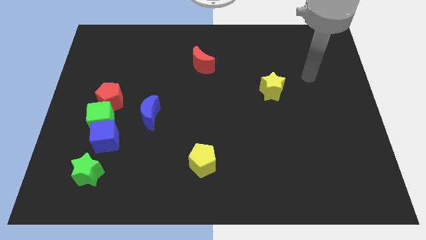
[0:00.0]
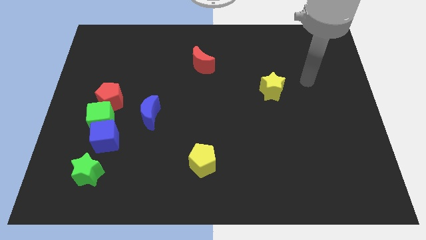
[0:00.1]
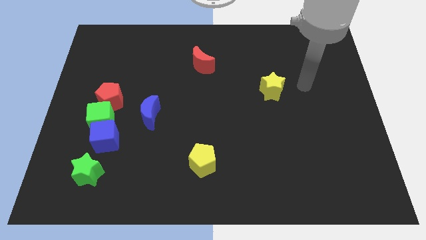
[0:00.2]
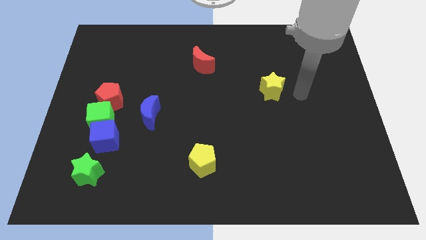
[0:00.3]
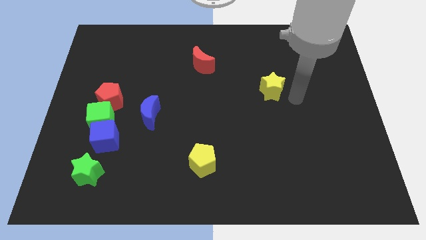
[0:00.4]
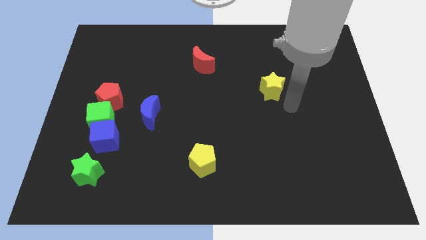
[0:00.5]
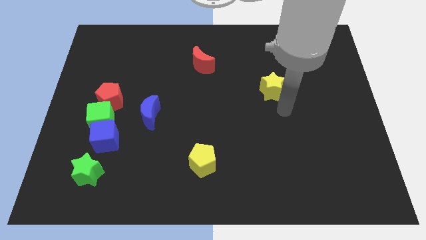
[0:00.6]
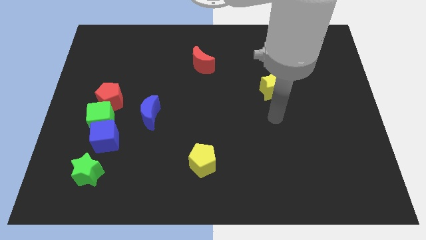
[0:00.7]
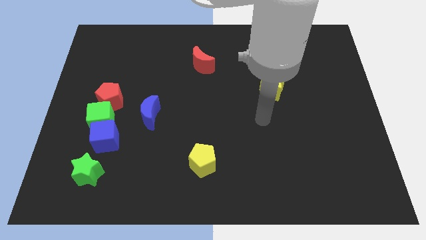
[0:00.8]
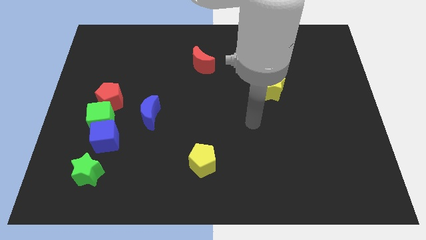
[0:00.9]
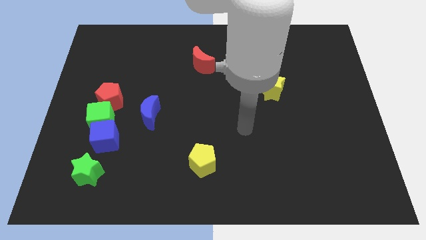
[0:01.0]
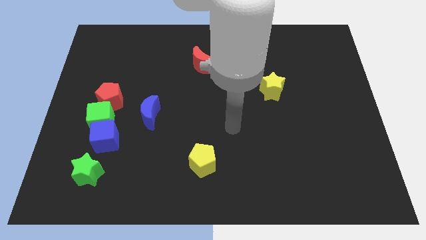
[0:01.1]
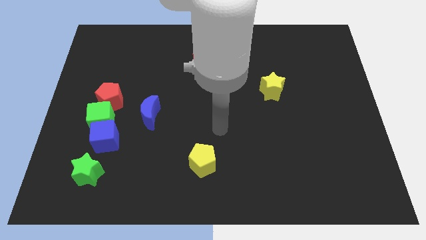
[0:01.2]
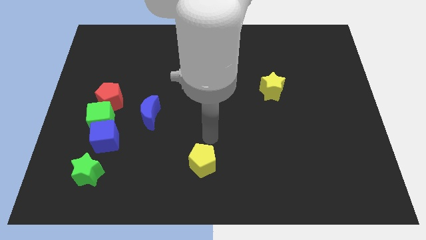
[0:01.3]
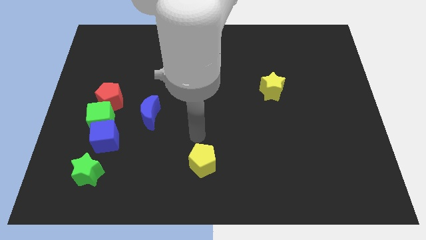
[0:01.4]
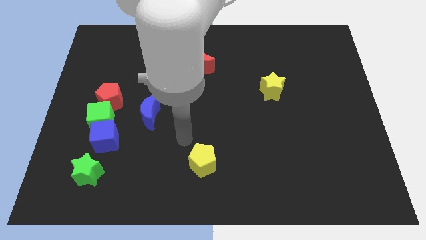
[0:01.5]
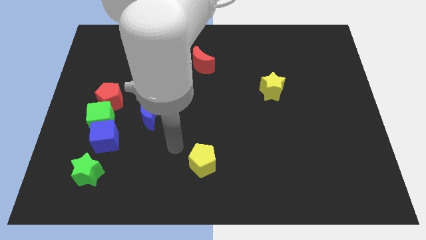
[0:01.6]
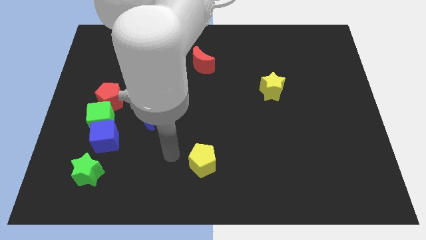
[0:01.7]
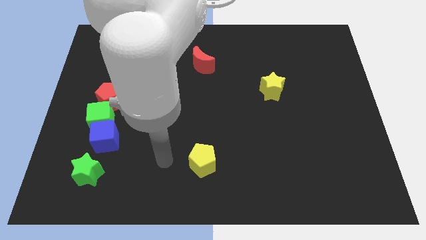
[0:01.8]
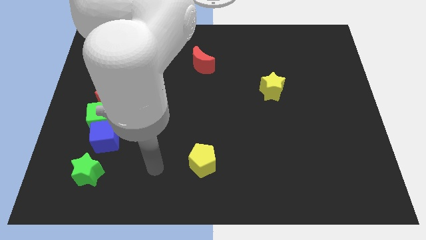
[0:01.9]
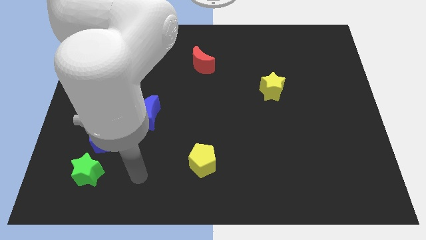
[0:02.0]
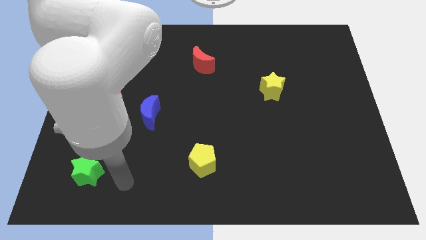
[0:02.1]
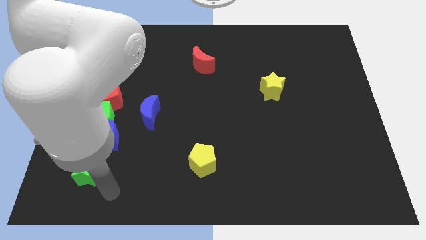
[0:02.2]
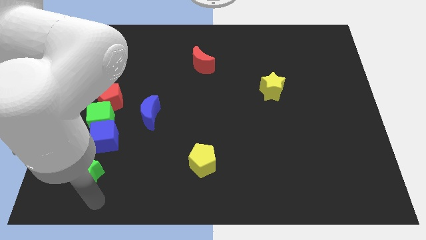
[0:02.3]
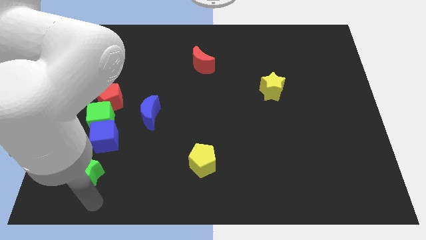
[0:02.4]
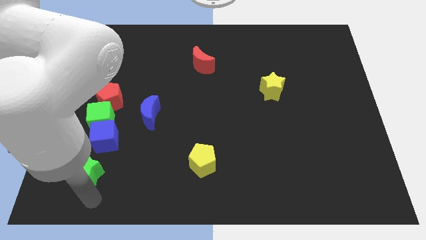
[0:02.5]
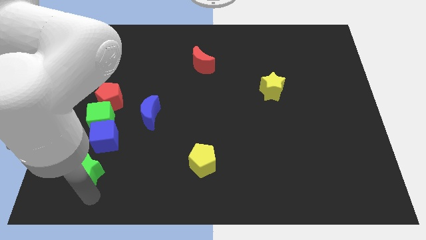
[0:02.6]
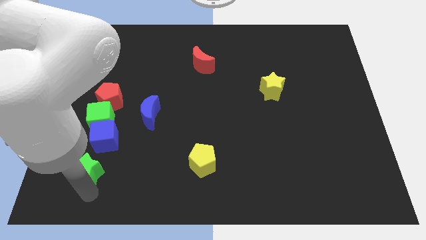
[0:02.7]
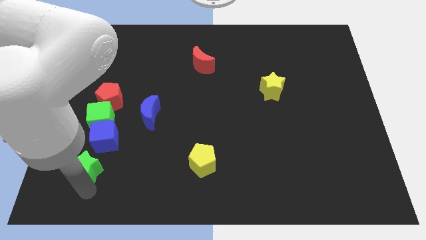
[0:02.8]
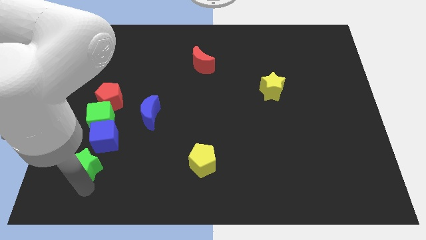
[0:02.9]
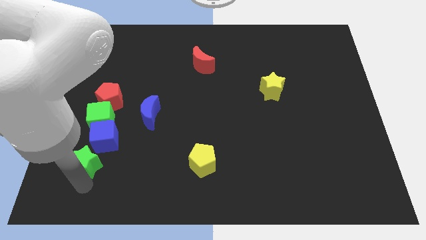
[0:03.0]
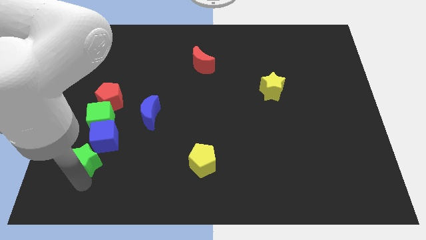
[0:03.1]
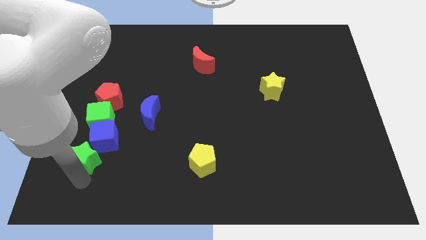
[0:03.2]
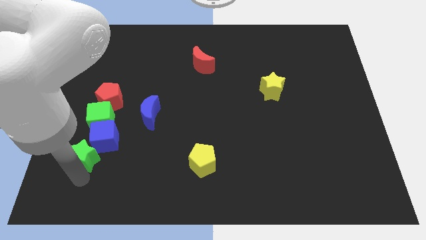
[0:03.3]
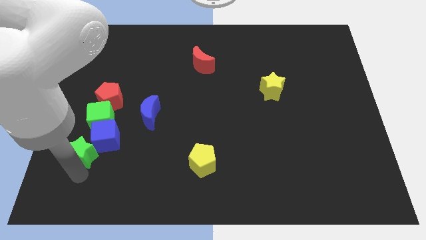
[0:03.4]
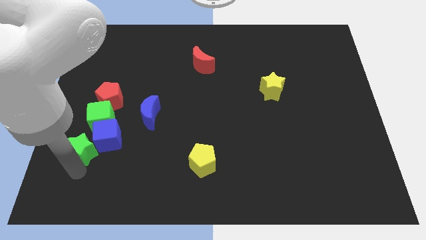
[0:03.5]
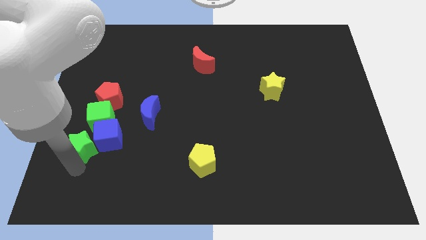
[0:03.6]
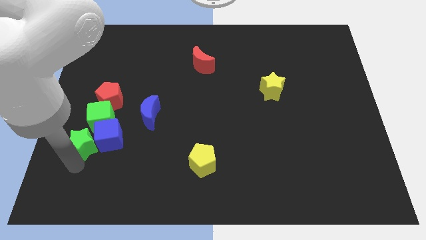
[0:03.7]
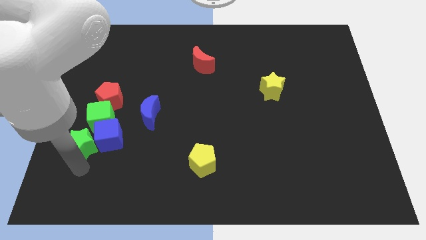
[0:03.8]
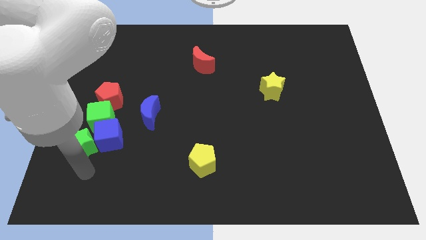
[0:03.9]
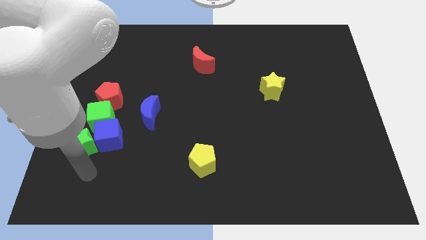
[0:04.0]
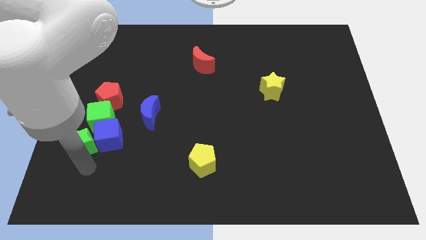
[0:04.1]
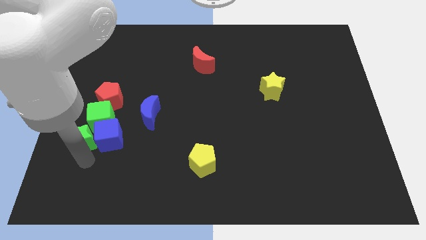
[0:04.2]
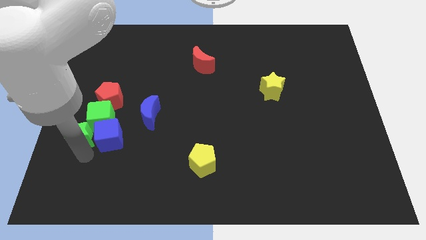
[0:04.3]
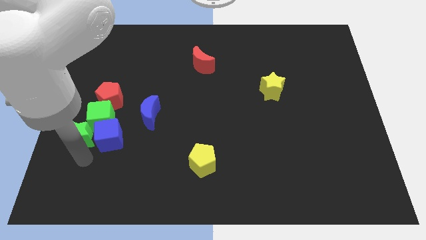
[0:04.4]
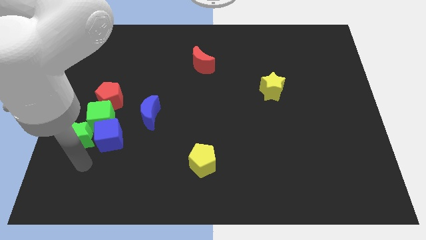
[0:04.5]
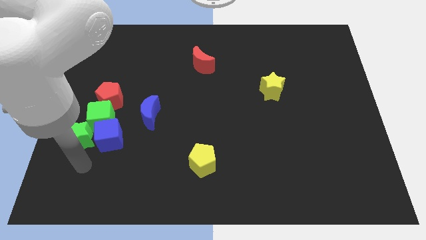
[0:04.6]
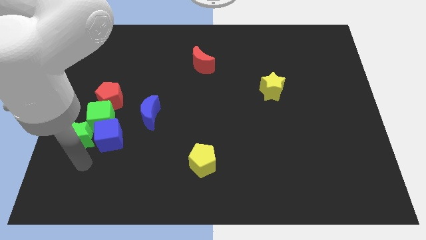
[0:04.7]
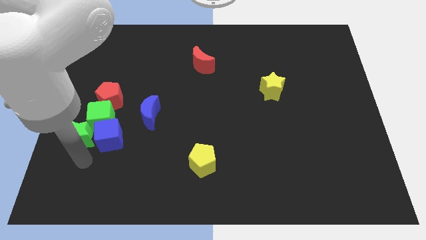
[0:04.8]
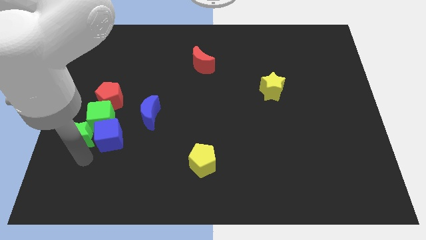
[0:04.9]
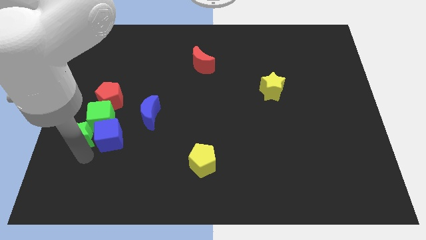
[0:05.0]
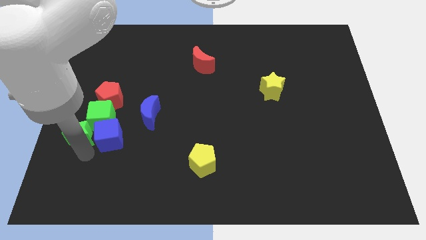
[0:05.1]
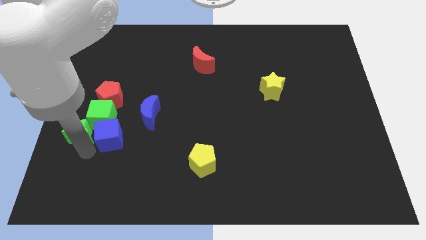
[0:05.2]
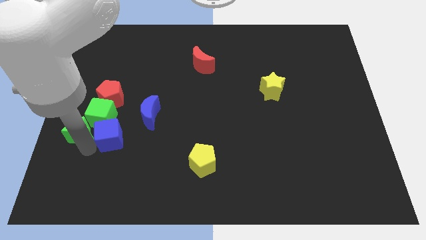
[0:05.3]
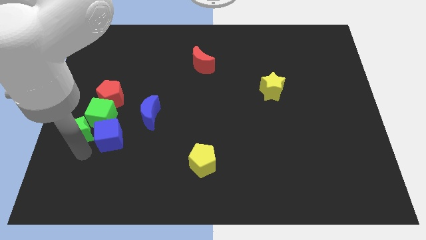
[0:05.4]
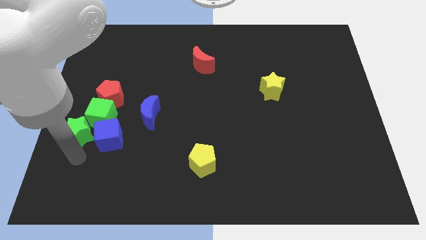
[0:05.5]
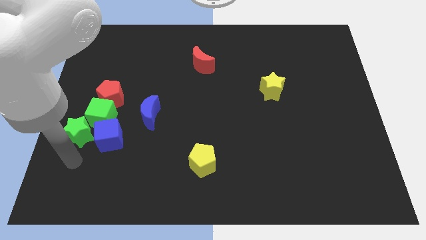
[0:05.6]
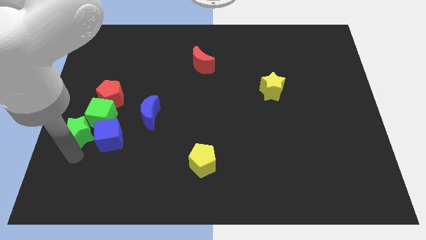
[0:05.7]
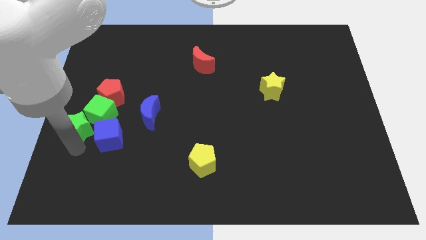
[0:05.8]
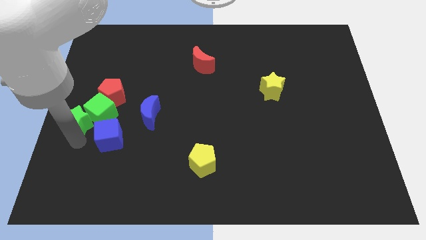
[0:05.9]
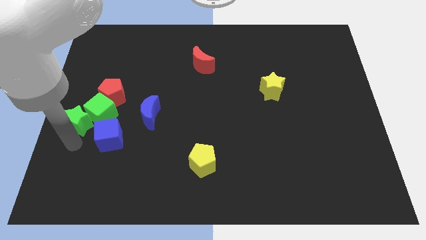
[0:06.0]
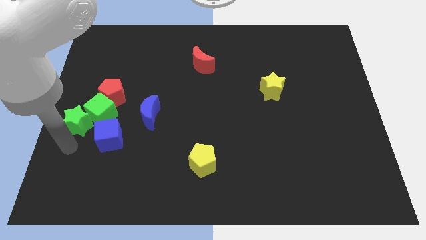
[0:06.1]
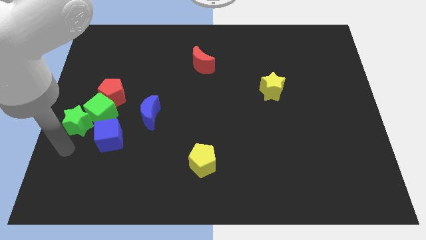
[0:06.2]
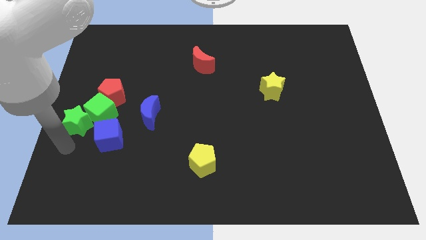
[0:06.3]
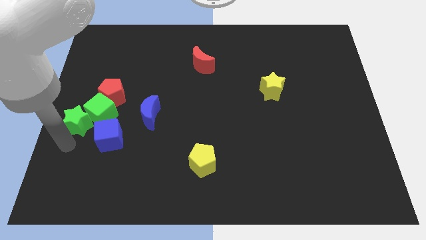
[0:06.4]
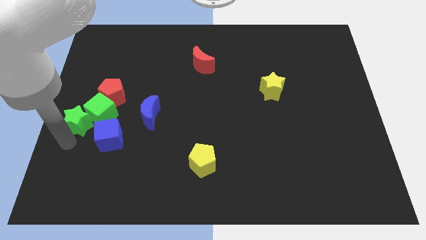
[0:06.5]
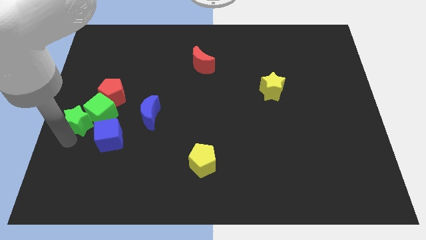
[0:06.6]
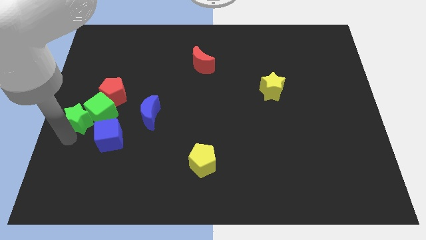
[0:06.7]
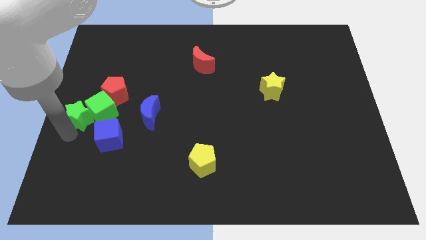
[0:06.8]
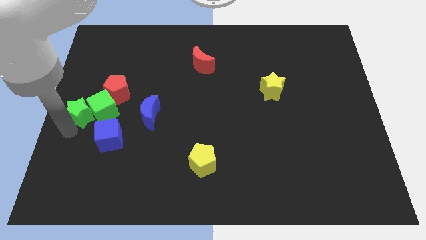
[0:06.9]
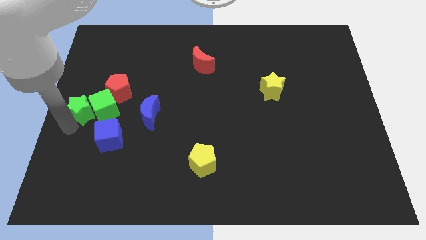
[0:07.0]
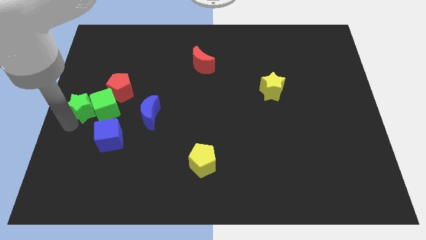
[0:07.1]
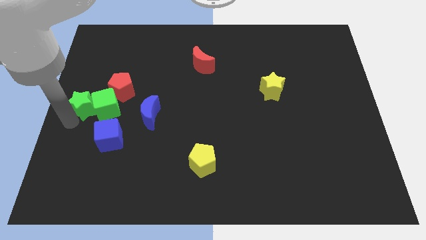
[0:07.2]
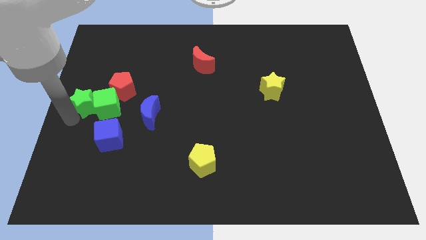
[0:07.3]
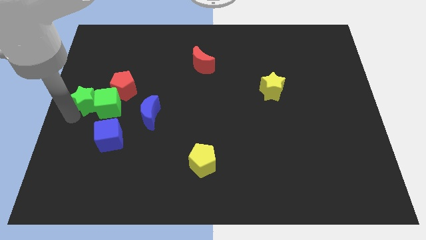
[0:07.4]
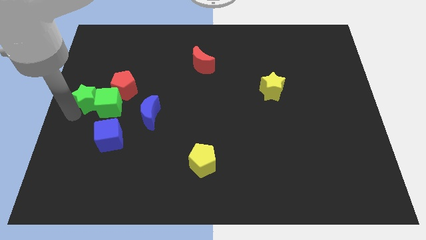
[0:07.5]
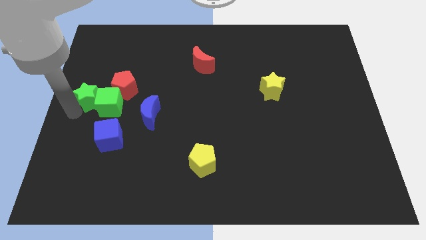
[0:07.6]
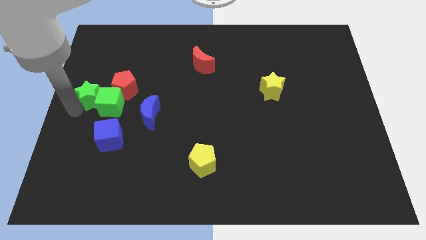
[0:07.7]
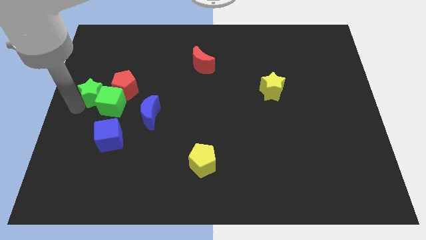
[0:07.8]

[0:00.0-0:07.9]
push the green star up
